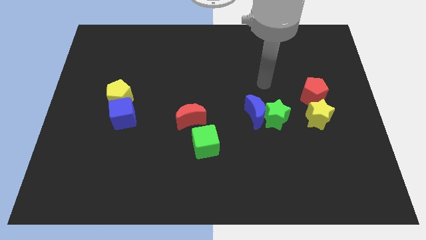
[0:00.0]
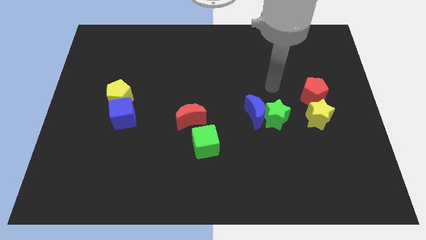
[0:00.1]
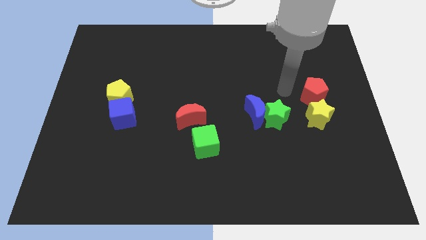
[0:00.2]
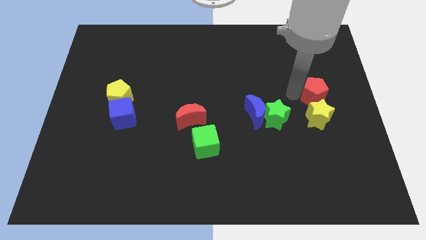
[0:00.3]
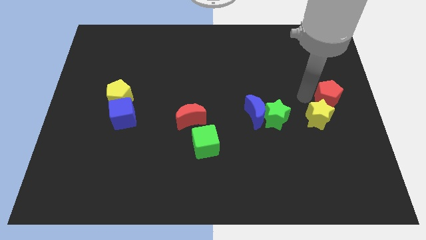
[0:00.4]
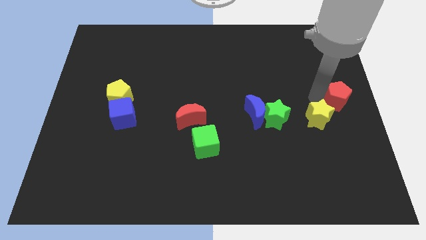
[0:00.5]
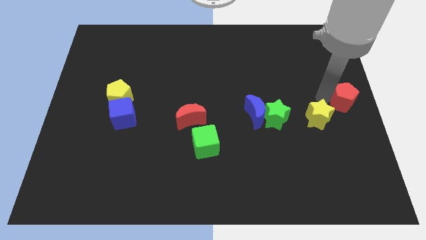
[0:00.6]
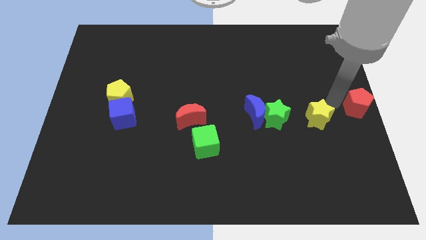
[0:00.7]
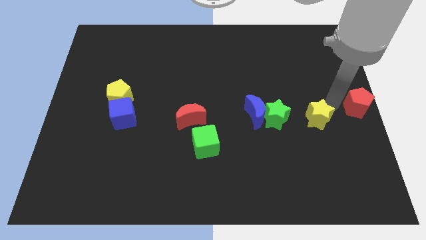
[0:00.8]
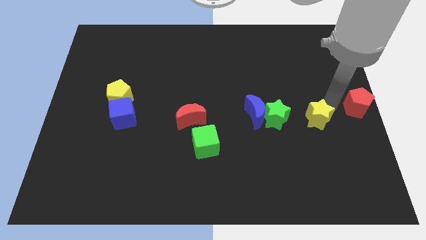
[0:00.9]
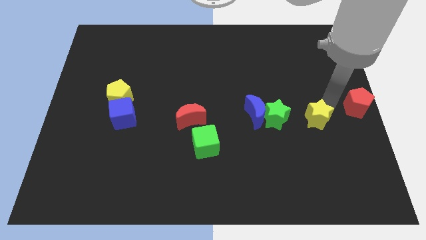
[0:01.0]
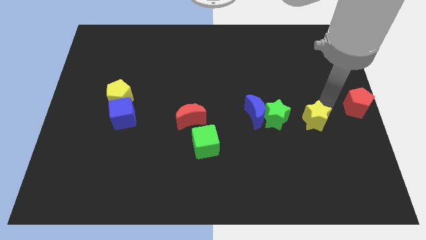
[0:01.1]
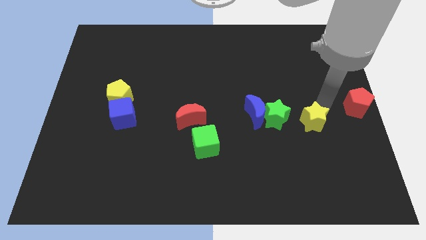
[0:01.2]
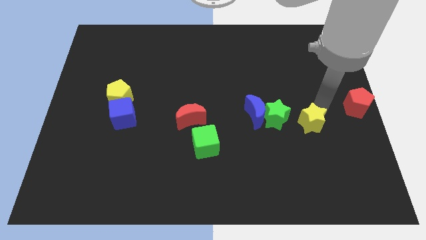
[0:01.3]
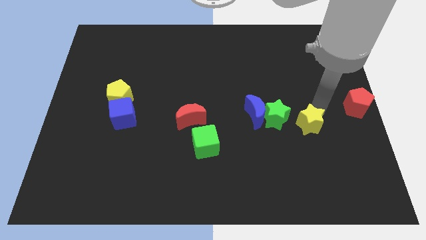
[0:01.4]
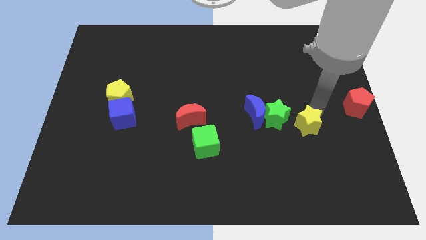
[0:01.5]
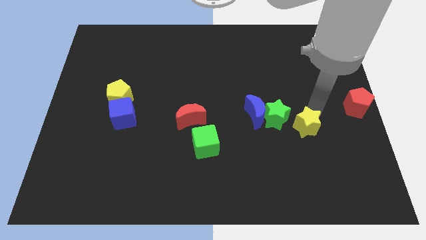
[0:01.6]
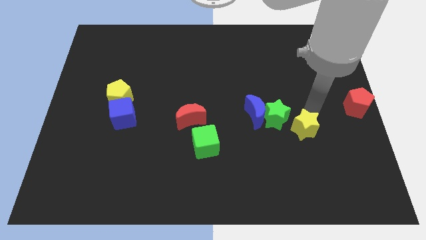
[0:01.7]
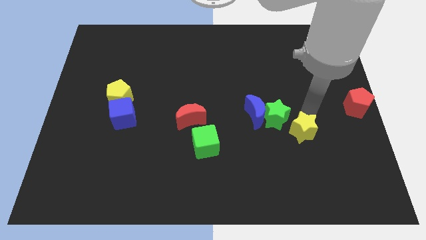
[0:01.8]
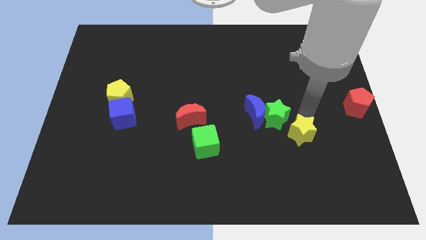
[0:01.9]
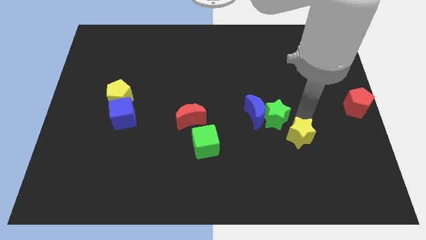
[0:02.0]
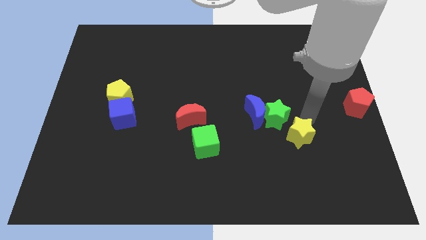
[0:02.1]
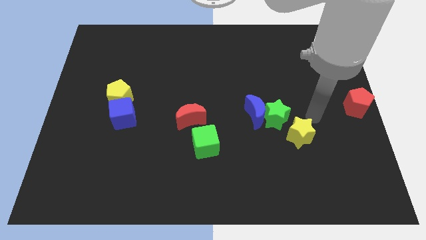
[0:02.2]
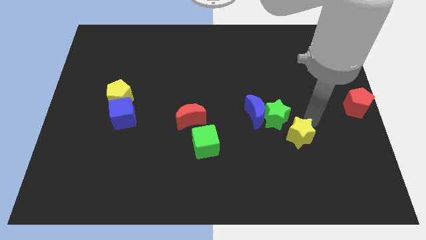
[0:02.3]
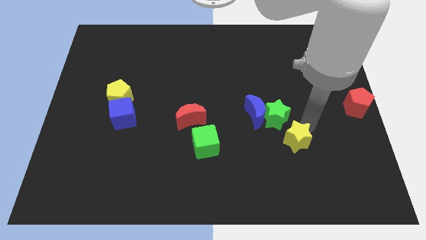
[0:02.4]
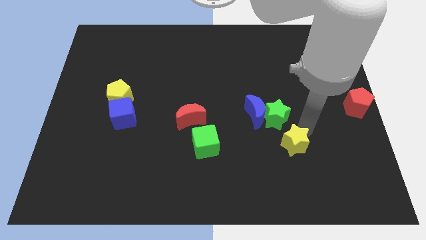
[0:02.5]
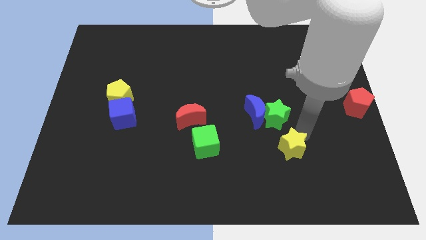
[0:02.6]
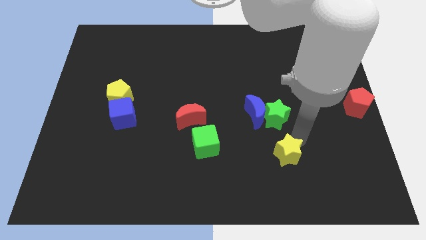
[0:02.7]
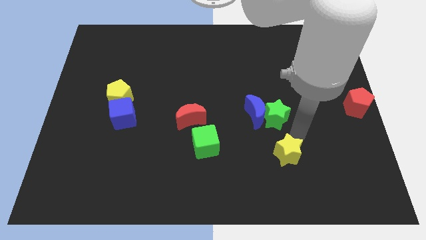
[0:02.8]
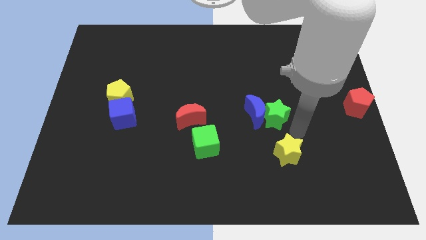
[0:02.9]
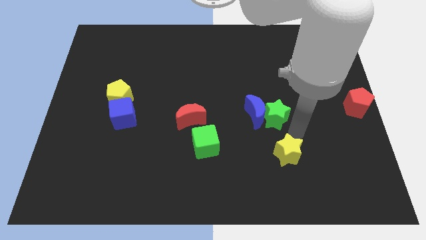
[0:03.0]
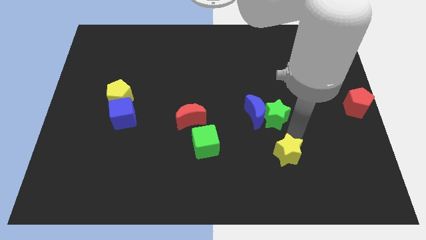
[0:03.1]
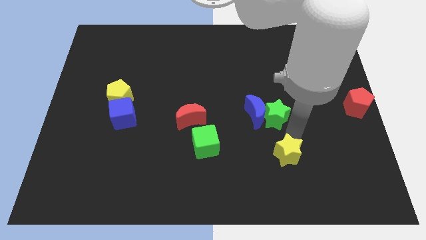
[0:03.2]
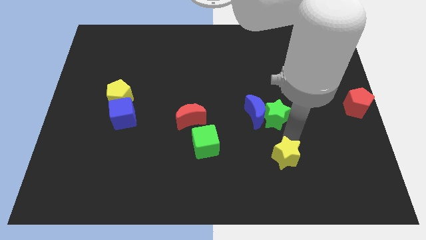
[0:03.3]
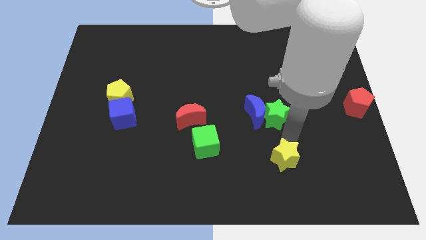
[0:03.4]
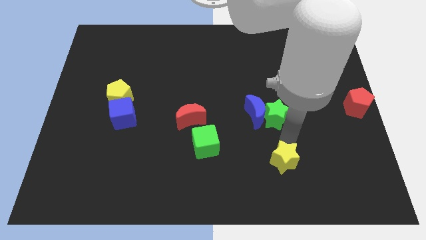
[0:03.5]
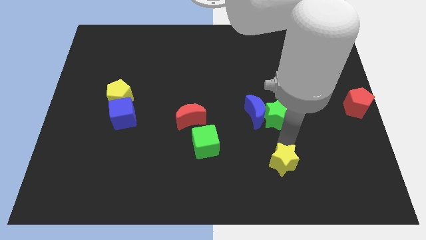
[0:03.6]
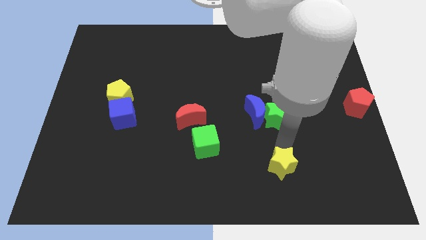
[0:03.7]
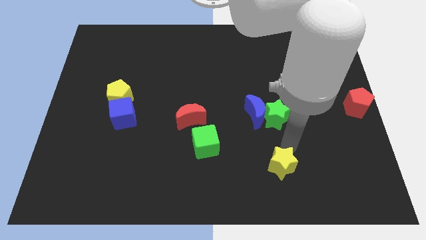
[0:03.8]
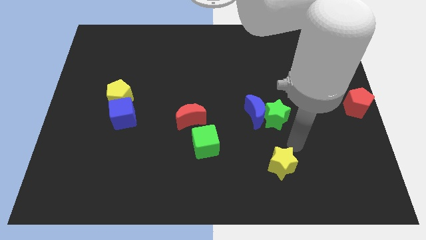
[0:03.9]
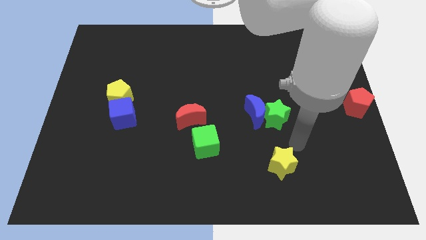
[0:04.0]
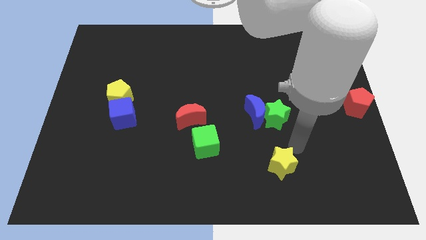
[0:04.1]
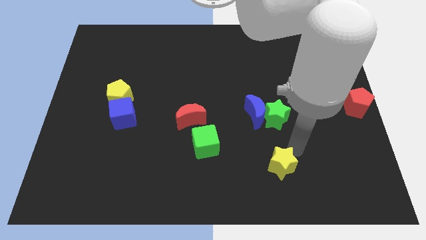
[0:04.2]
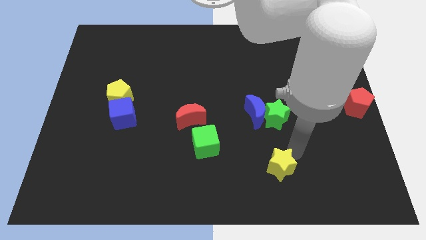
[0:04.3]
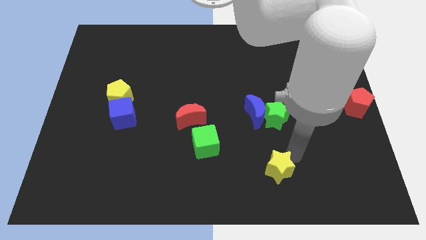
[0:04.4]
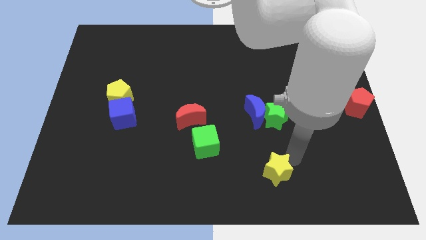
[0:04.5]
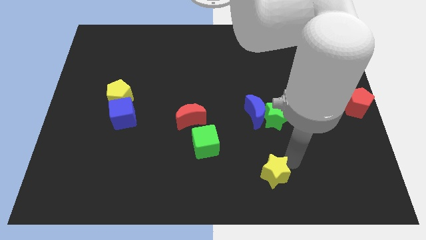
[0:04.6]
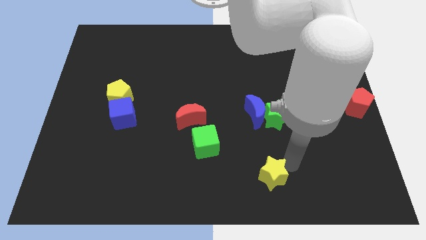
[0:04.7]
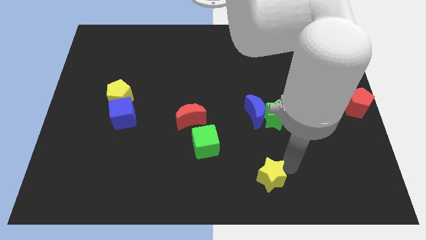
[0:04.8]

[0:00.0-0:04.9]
slide the yellow star to the bottom

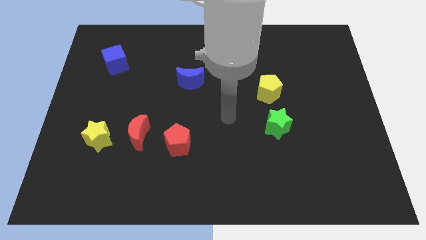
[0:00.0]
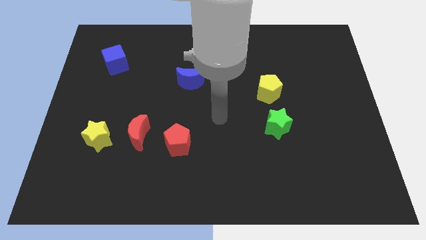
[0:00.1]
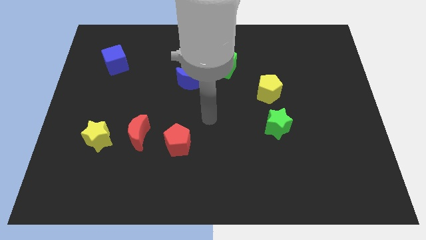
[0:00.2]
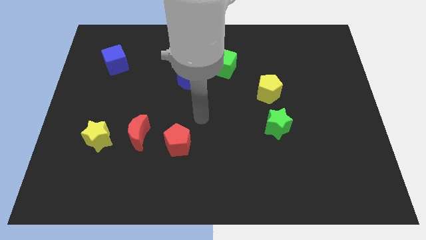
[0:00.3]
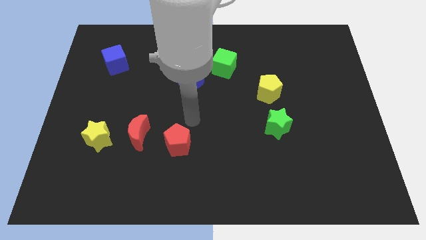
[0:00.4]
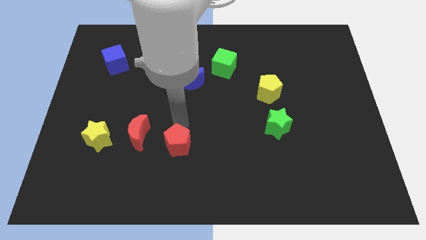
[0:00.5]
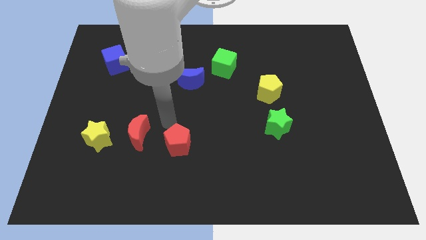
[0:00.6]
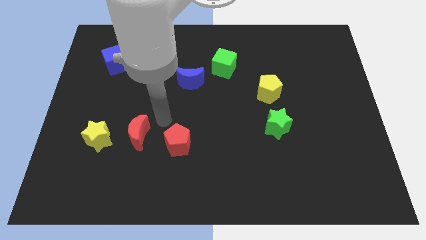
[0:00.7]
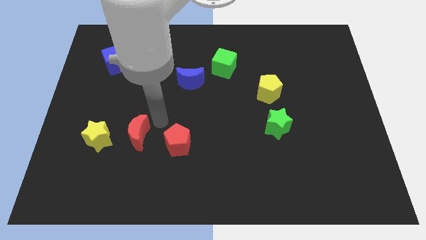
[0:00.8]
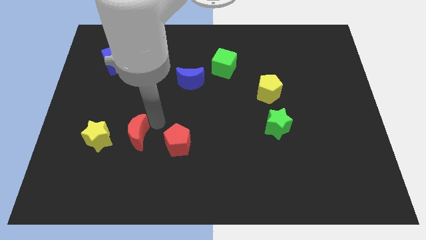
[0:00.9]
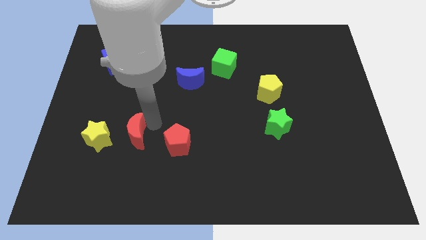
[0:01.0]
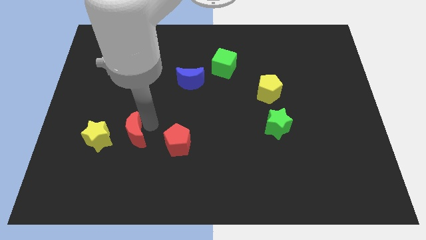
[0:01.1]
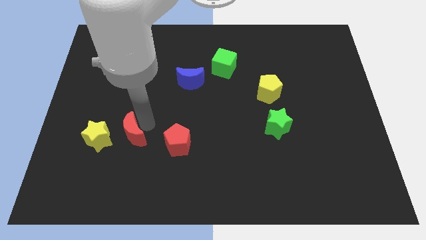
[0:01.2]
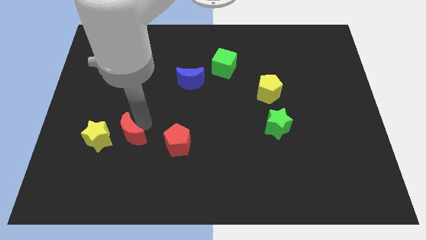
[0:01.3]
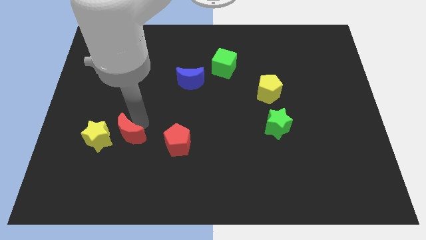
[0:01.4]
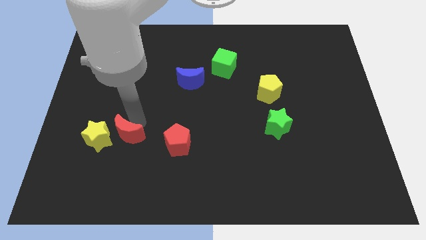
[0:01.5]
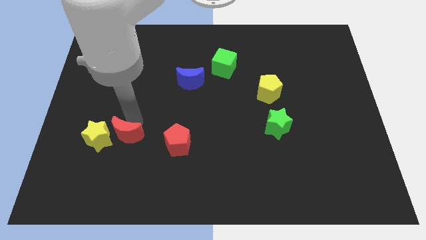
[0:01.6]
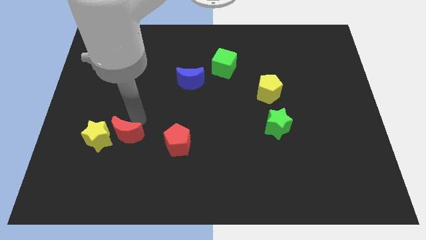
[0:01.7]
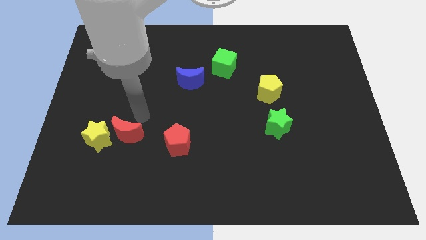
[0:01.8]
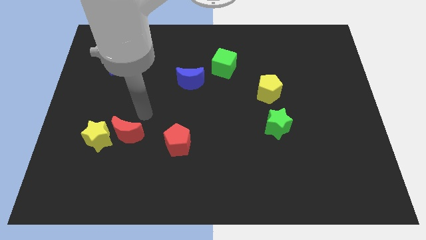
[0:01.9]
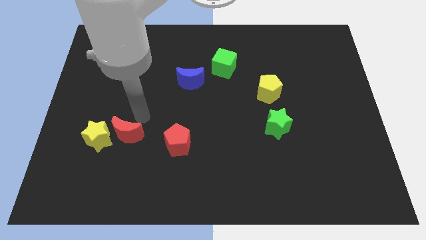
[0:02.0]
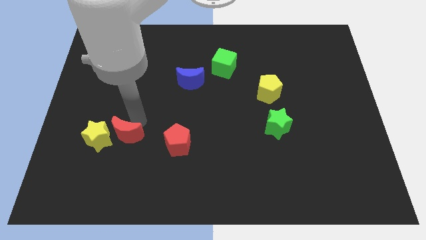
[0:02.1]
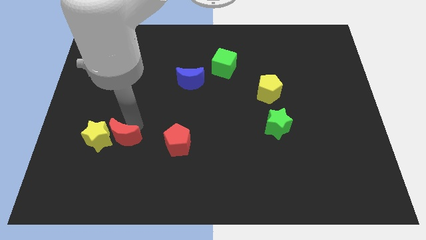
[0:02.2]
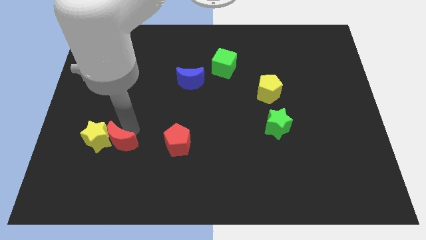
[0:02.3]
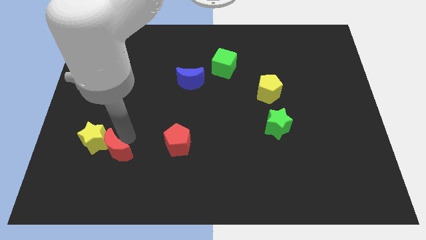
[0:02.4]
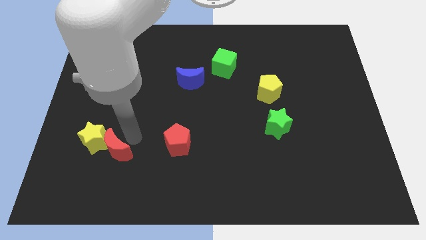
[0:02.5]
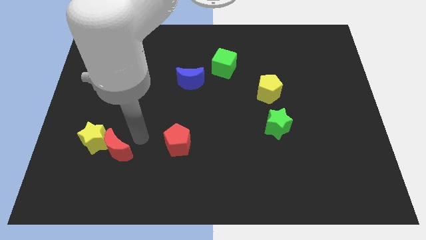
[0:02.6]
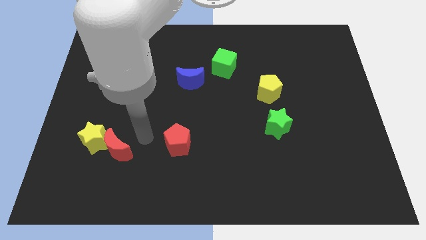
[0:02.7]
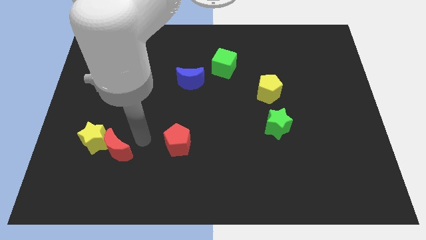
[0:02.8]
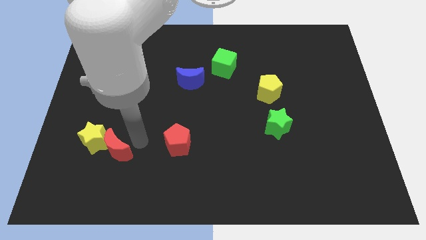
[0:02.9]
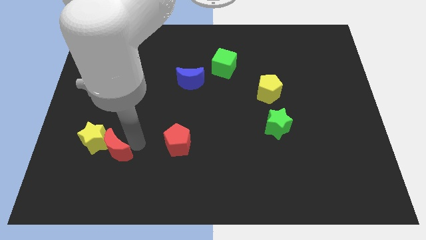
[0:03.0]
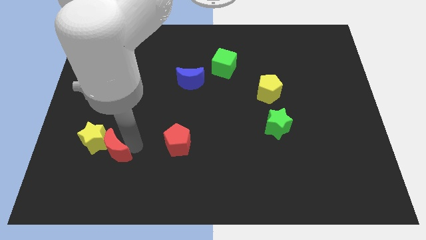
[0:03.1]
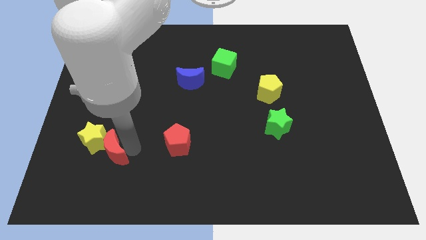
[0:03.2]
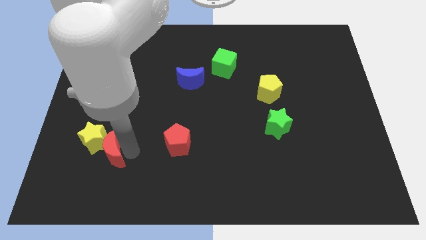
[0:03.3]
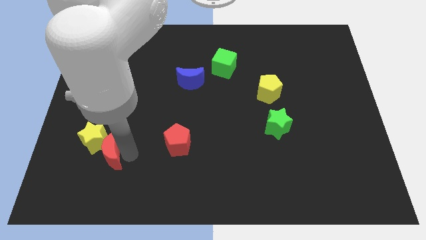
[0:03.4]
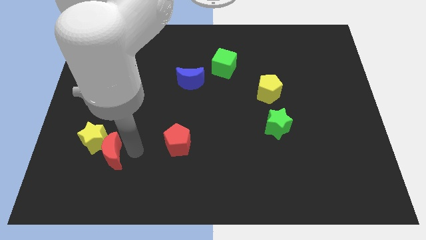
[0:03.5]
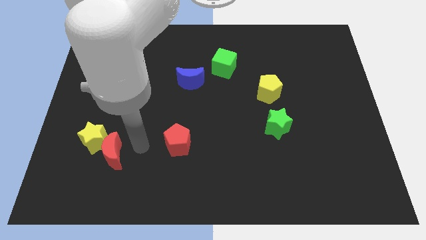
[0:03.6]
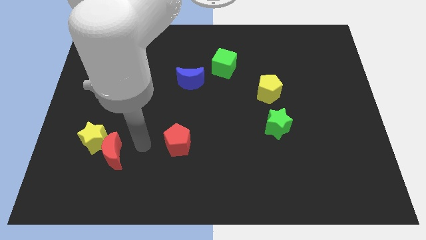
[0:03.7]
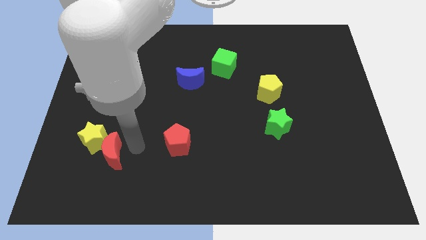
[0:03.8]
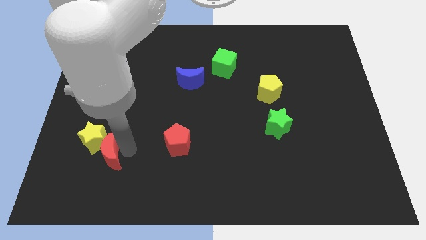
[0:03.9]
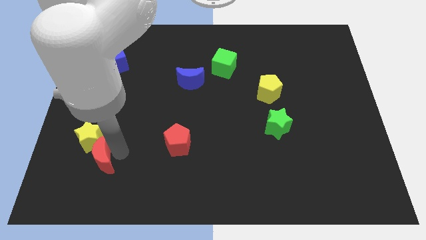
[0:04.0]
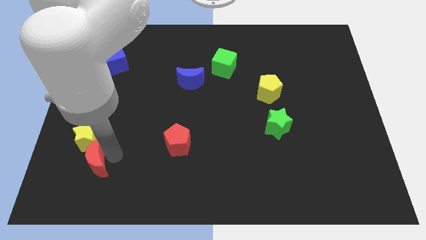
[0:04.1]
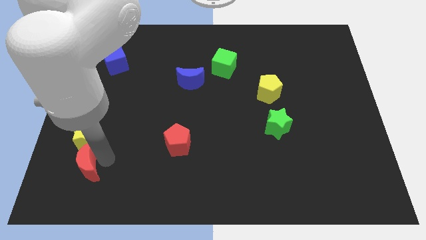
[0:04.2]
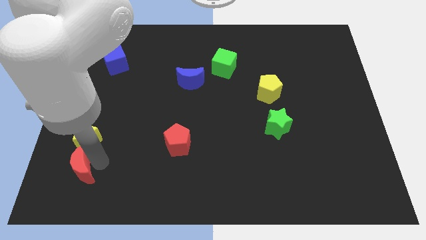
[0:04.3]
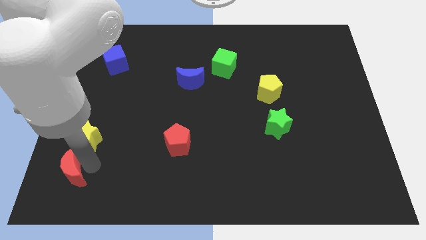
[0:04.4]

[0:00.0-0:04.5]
move the red moon to the lower left corner
